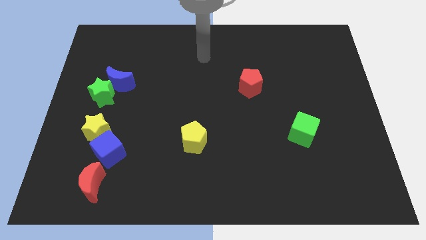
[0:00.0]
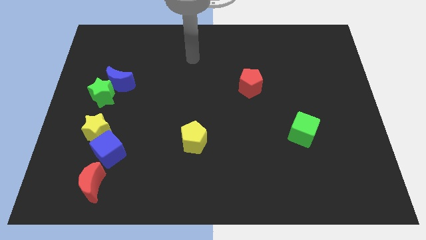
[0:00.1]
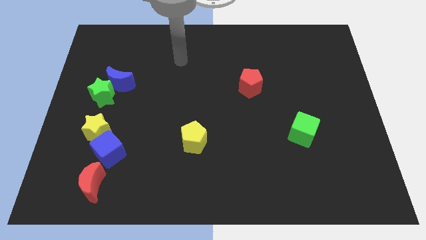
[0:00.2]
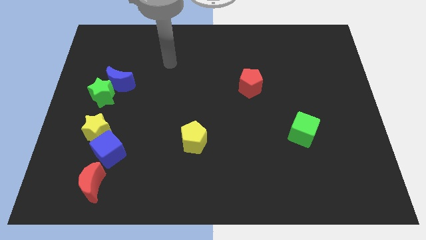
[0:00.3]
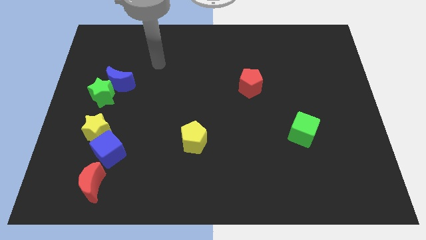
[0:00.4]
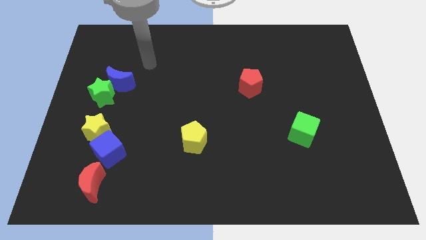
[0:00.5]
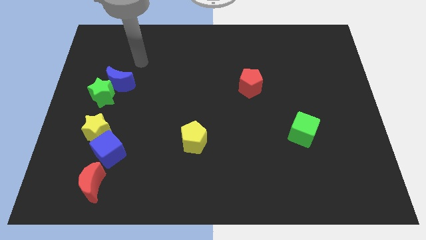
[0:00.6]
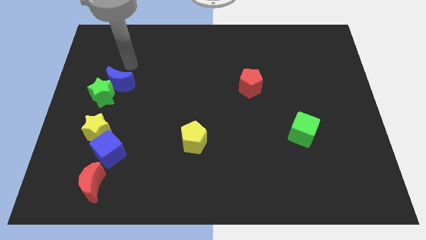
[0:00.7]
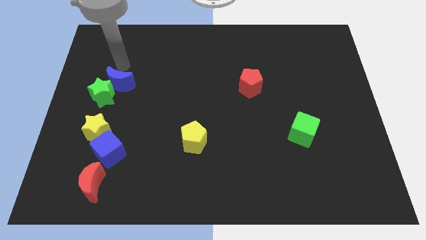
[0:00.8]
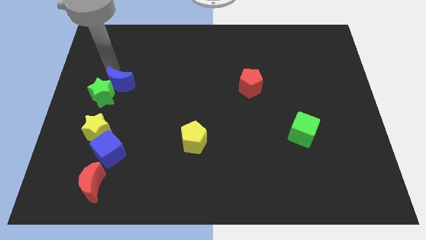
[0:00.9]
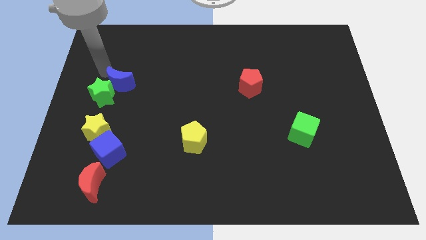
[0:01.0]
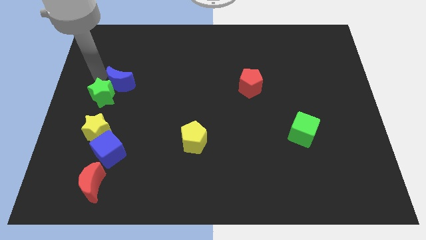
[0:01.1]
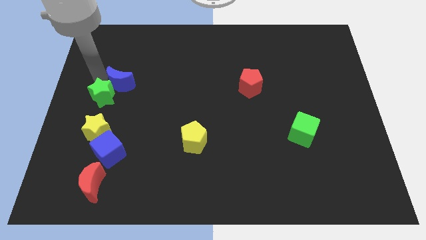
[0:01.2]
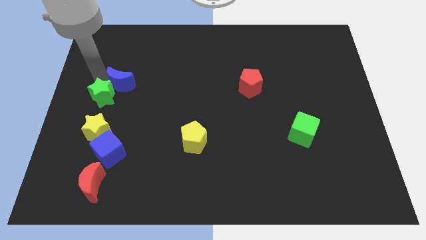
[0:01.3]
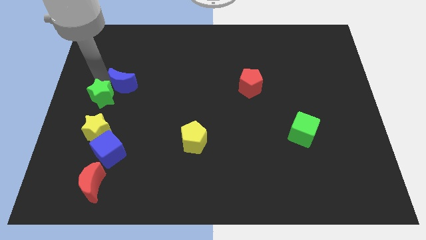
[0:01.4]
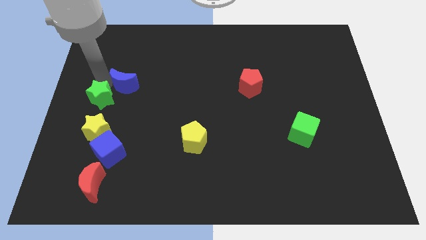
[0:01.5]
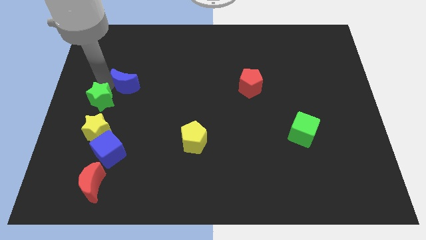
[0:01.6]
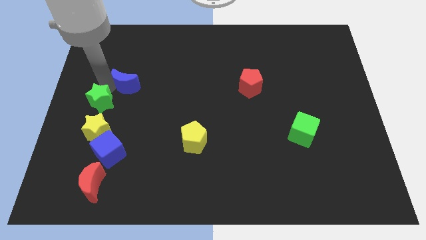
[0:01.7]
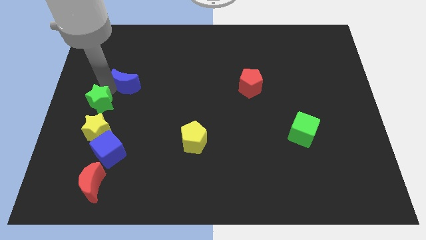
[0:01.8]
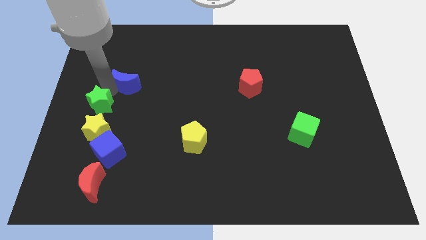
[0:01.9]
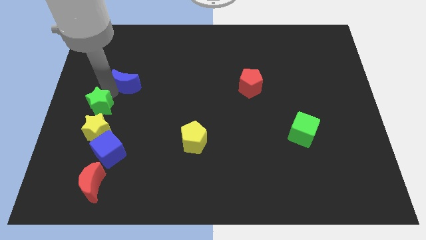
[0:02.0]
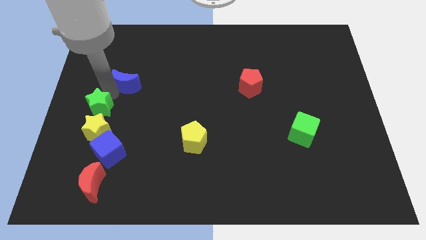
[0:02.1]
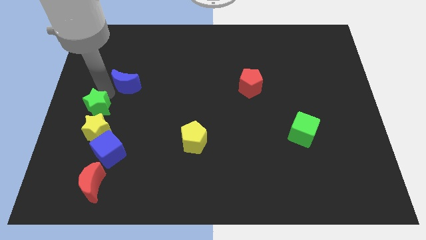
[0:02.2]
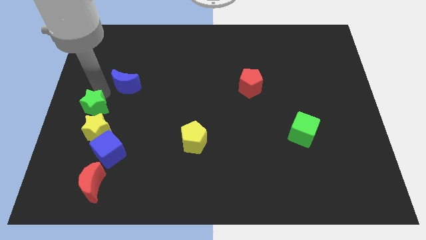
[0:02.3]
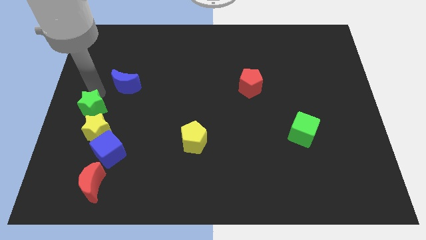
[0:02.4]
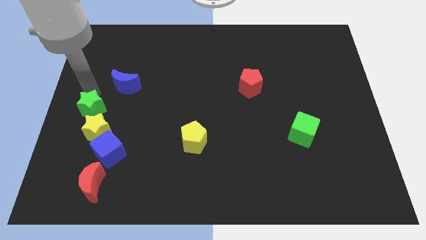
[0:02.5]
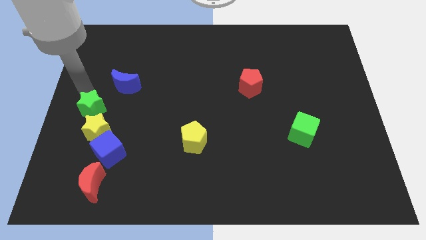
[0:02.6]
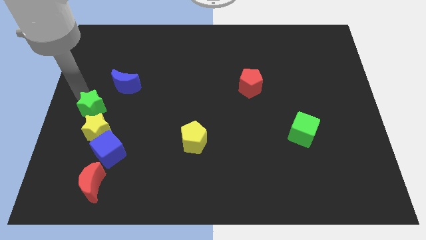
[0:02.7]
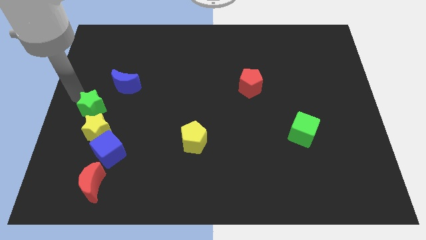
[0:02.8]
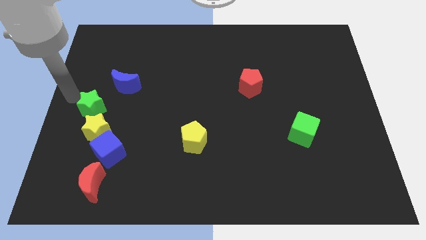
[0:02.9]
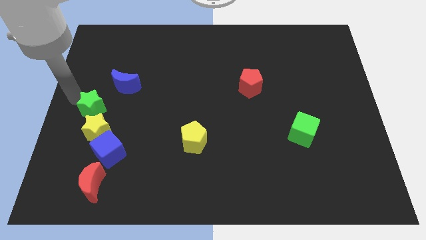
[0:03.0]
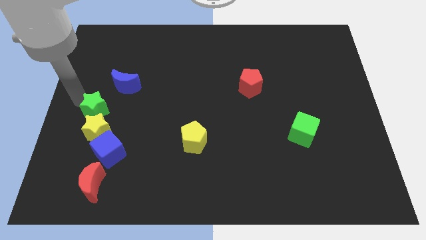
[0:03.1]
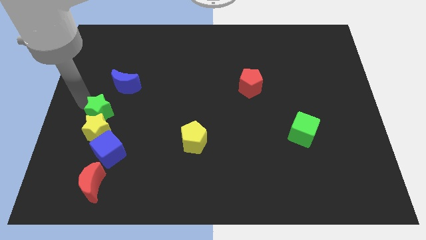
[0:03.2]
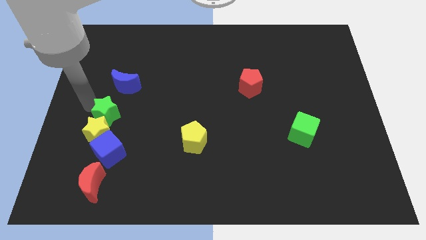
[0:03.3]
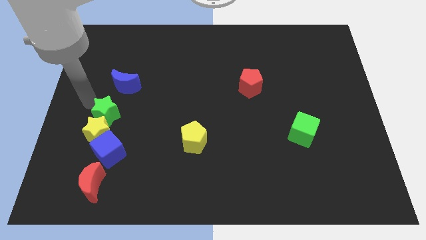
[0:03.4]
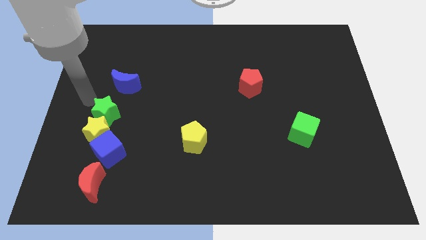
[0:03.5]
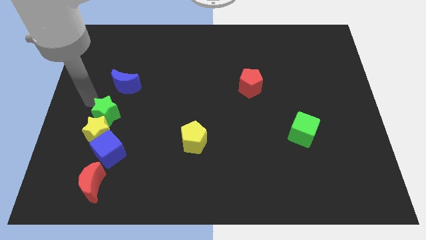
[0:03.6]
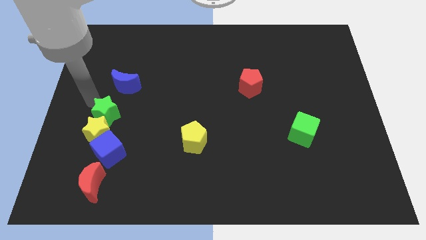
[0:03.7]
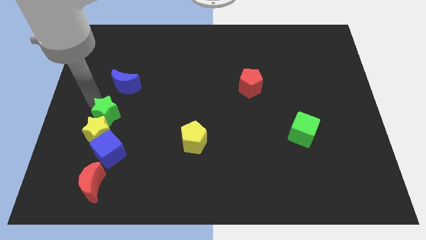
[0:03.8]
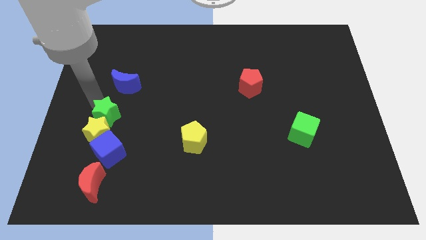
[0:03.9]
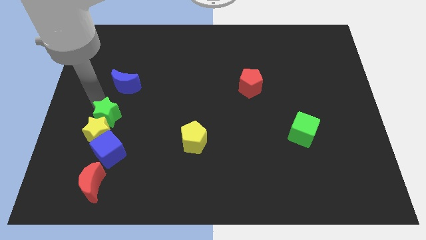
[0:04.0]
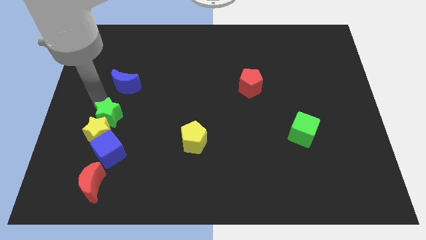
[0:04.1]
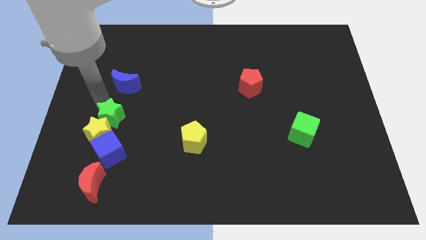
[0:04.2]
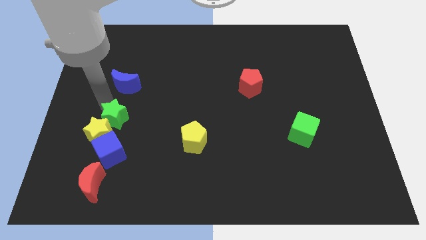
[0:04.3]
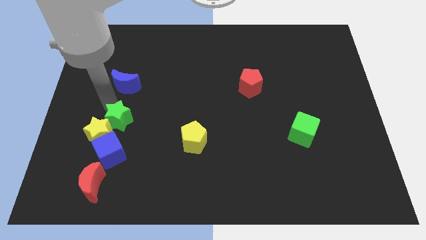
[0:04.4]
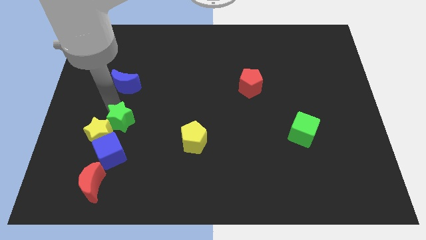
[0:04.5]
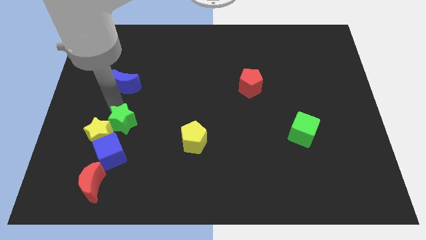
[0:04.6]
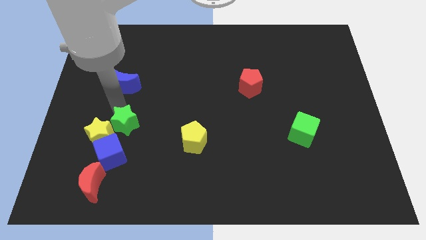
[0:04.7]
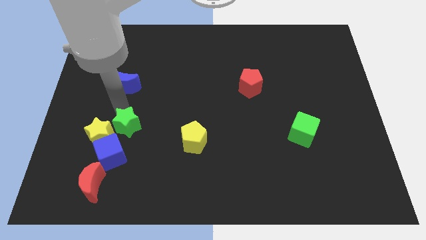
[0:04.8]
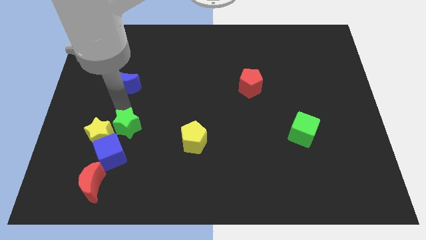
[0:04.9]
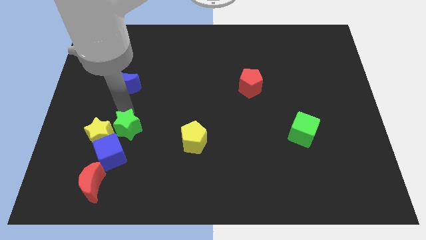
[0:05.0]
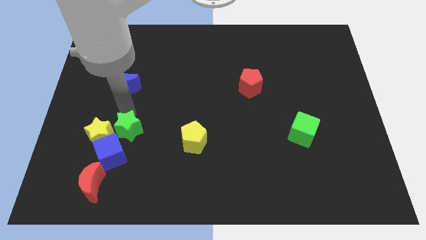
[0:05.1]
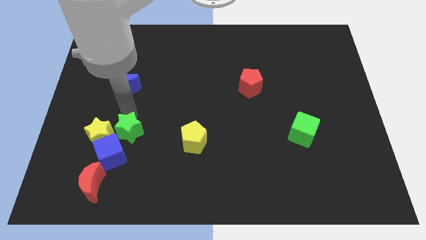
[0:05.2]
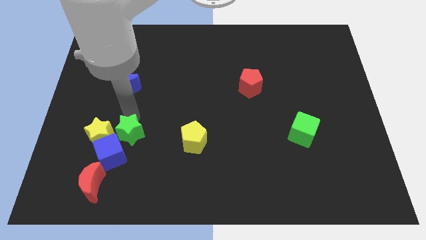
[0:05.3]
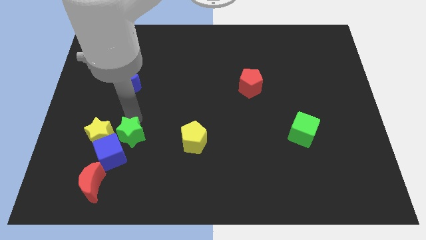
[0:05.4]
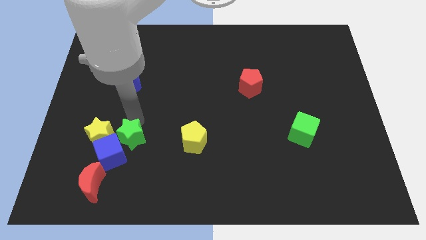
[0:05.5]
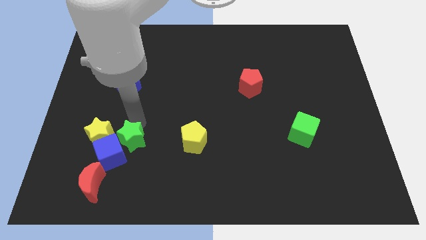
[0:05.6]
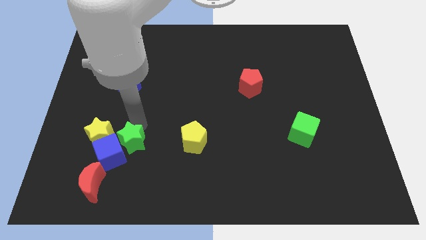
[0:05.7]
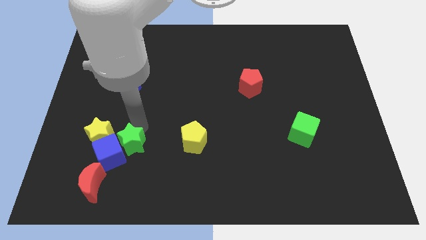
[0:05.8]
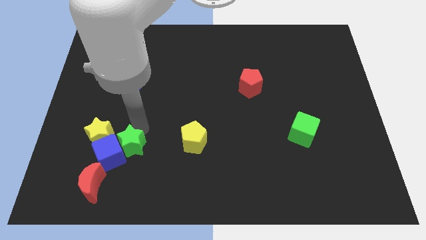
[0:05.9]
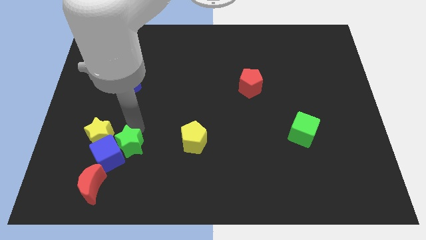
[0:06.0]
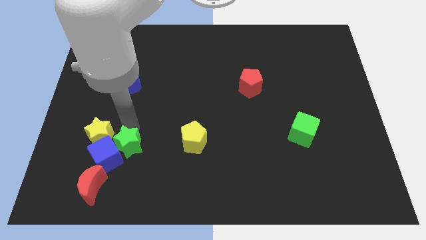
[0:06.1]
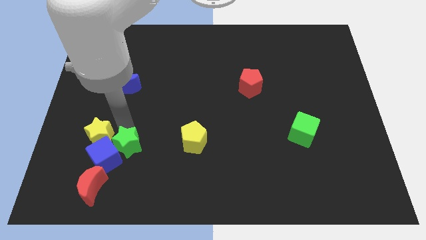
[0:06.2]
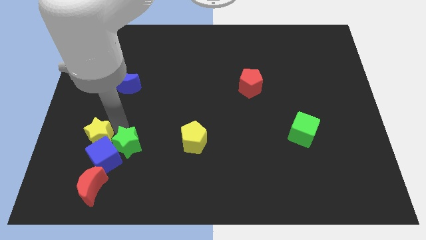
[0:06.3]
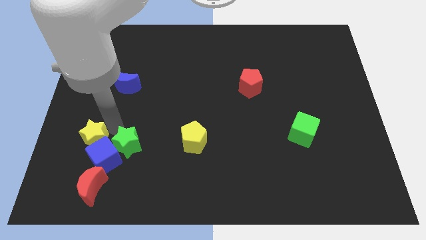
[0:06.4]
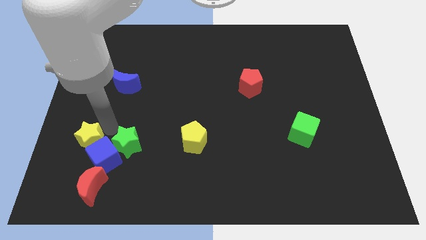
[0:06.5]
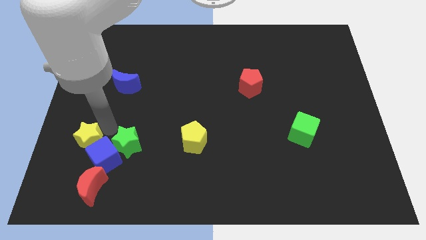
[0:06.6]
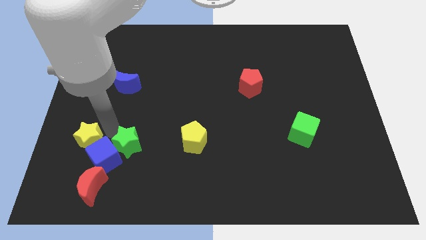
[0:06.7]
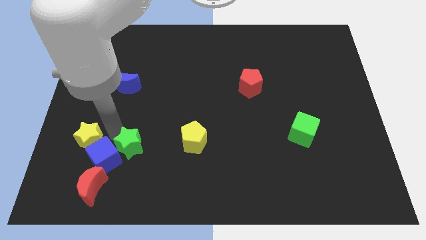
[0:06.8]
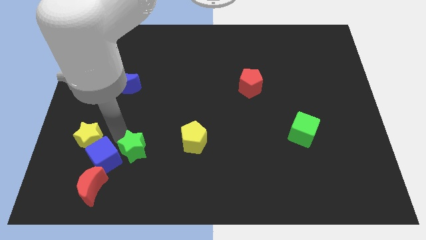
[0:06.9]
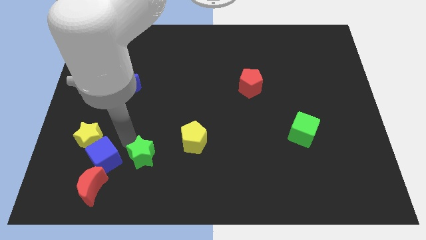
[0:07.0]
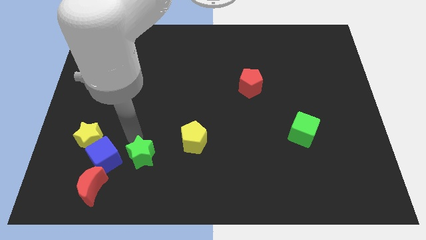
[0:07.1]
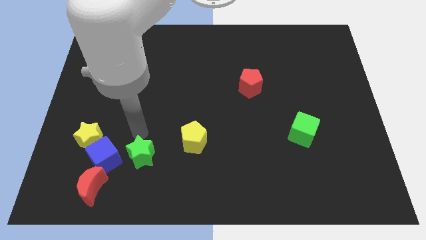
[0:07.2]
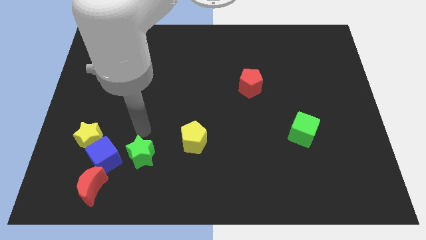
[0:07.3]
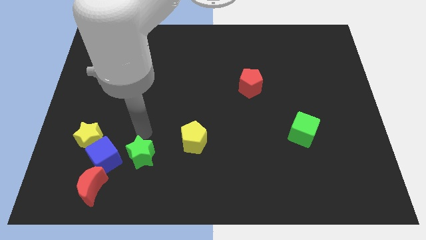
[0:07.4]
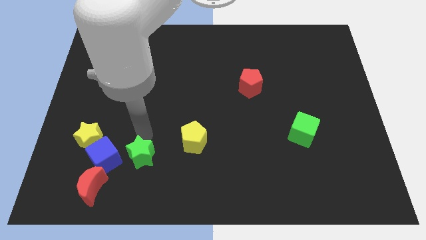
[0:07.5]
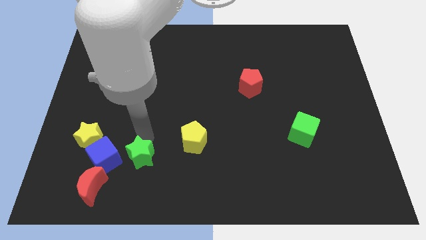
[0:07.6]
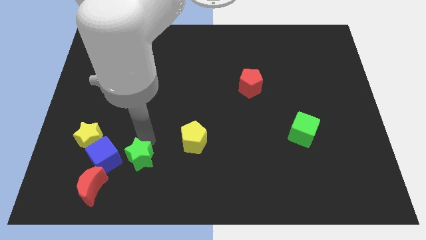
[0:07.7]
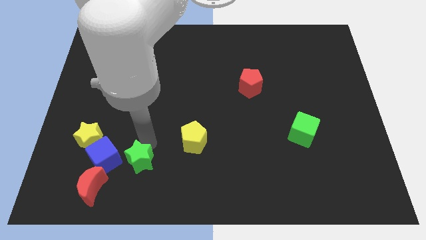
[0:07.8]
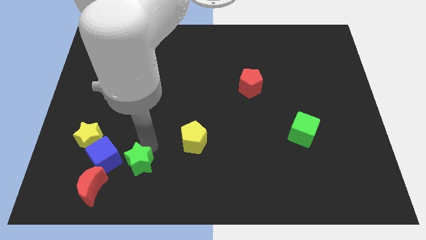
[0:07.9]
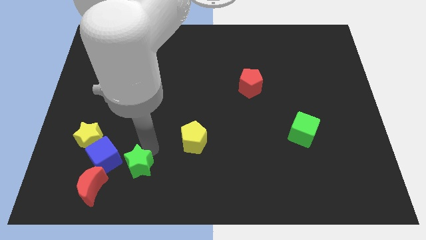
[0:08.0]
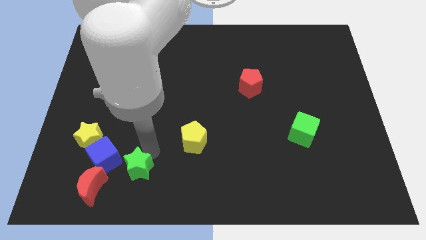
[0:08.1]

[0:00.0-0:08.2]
push the green star to the right of the red moon
